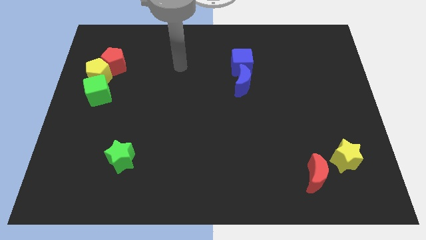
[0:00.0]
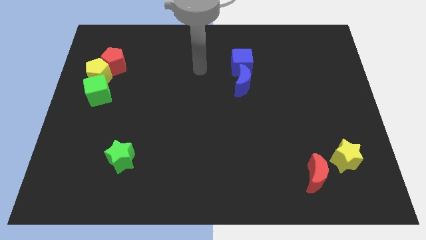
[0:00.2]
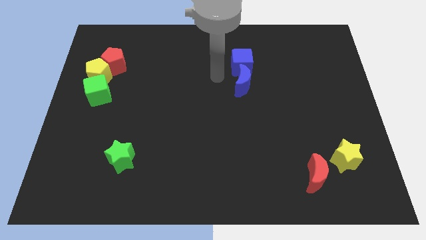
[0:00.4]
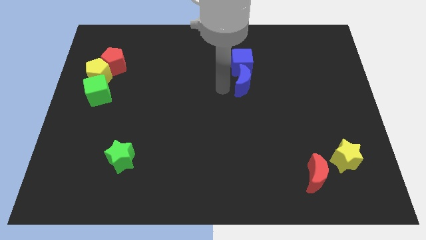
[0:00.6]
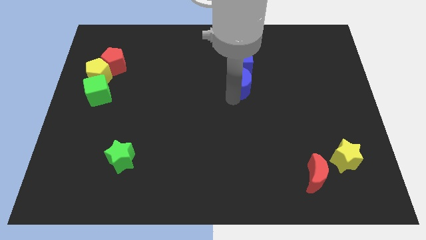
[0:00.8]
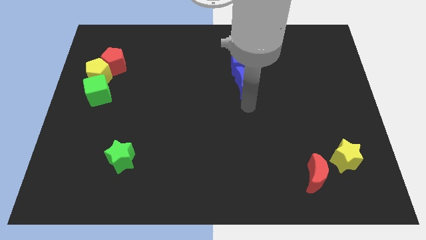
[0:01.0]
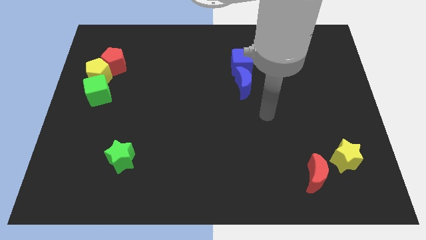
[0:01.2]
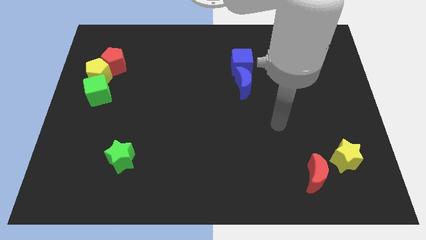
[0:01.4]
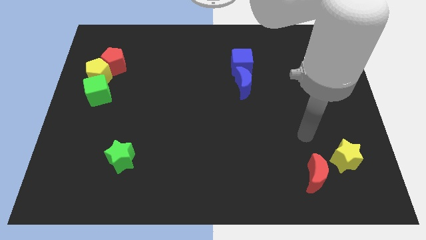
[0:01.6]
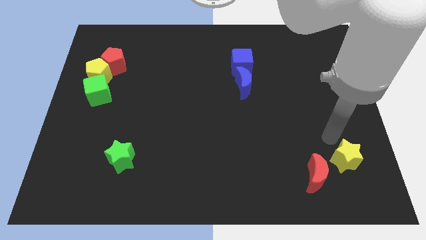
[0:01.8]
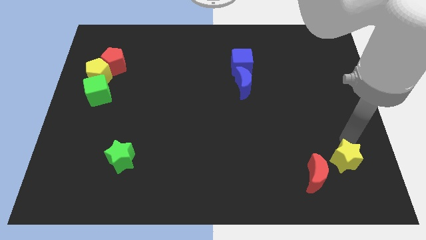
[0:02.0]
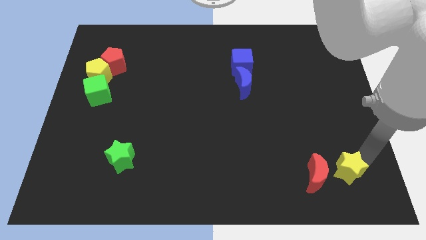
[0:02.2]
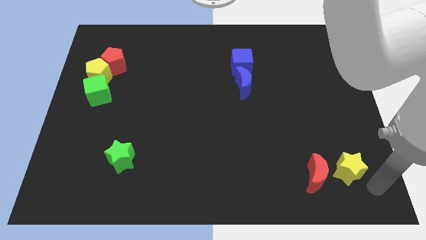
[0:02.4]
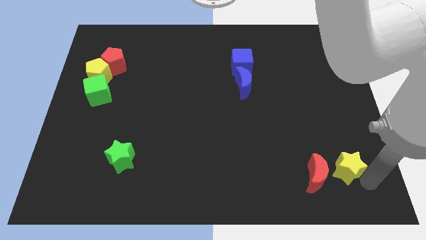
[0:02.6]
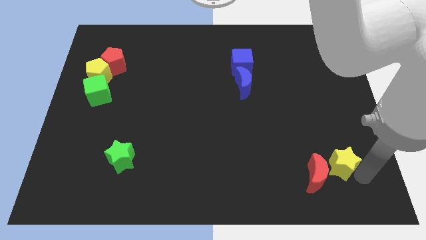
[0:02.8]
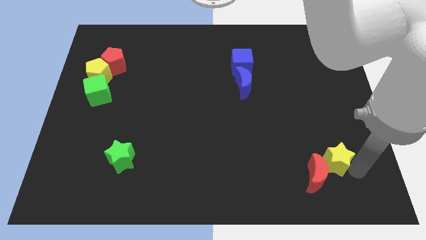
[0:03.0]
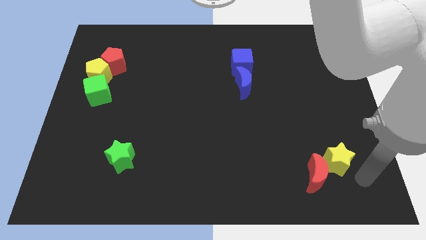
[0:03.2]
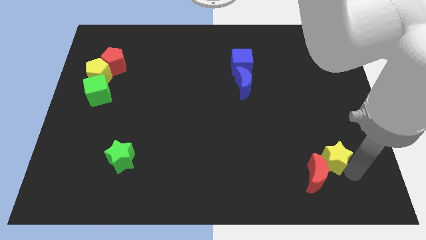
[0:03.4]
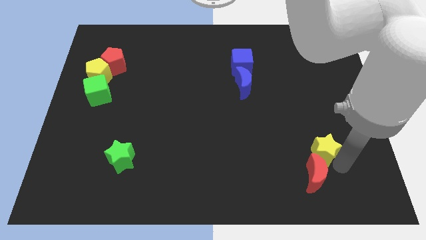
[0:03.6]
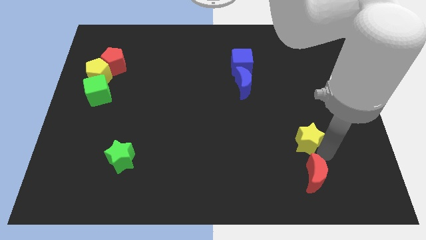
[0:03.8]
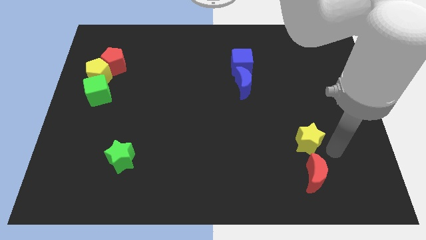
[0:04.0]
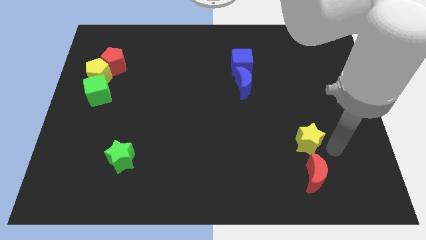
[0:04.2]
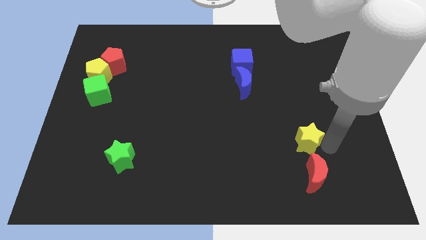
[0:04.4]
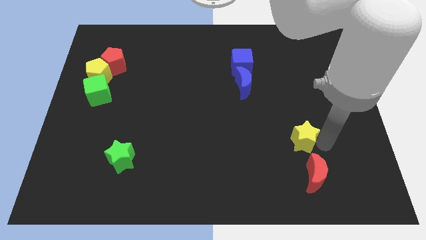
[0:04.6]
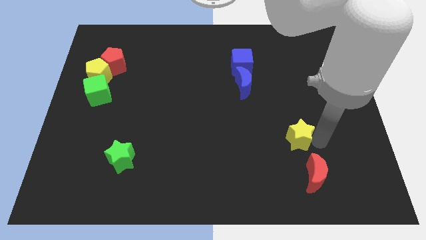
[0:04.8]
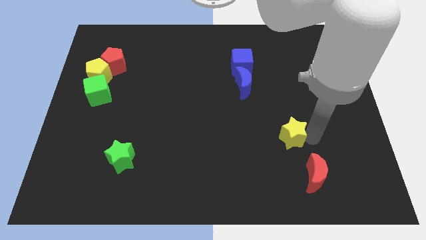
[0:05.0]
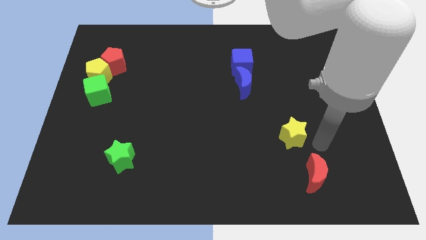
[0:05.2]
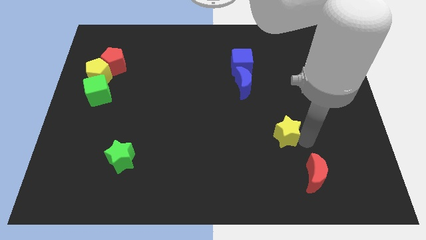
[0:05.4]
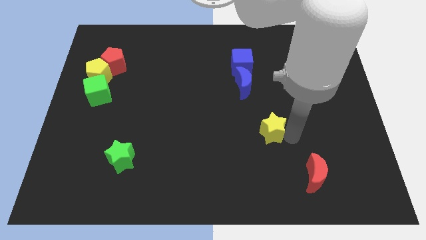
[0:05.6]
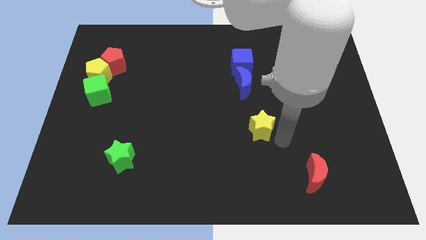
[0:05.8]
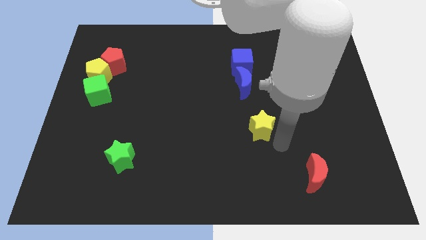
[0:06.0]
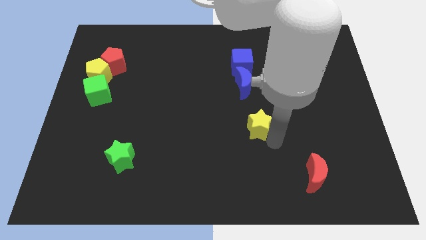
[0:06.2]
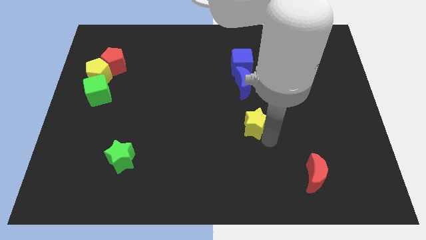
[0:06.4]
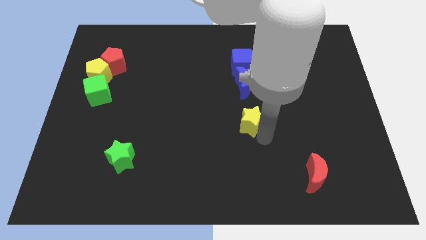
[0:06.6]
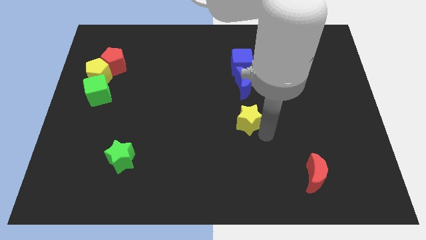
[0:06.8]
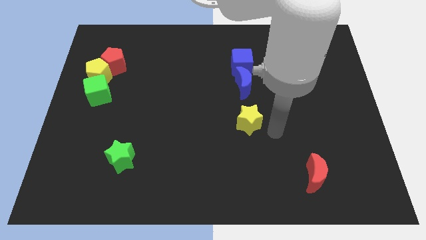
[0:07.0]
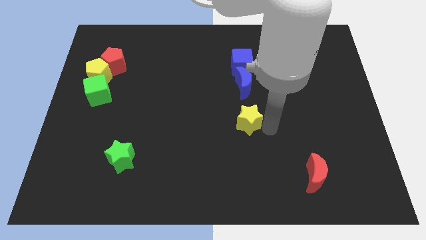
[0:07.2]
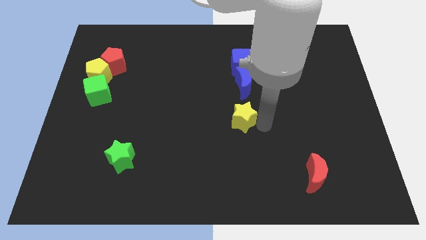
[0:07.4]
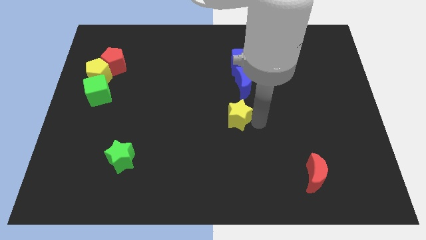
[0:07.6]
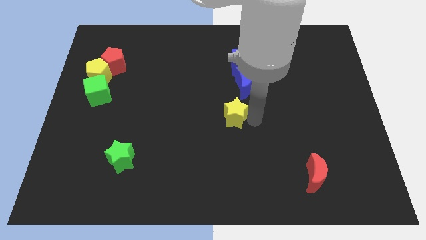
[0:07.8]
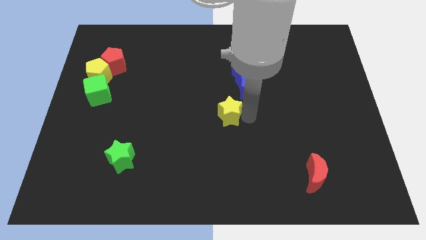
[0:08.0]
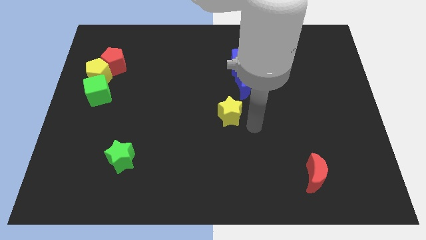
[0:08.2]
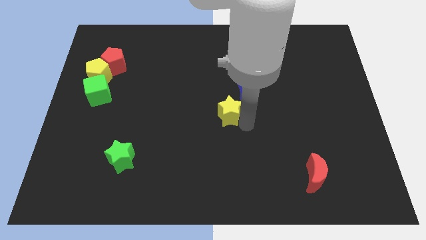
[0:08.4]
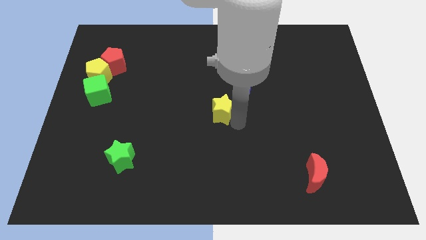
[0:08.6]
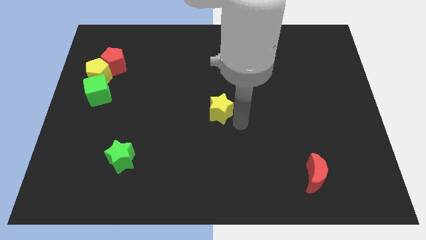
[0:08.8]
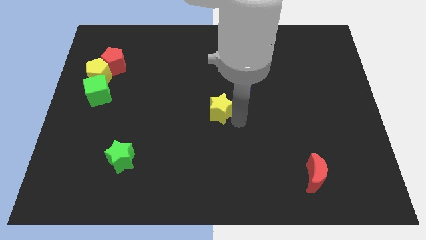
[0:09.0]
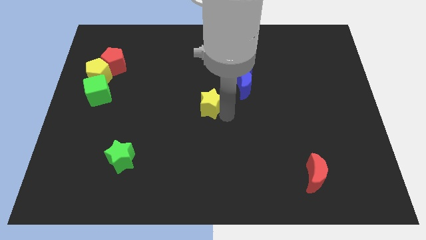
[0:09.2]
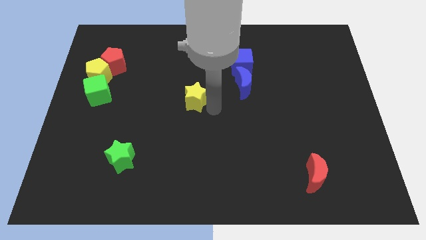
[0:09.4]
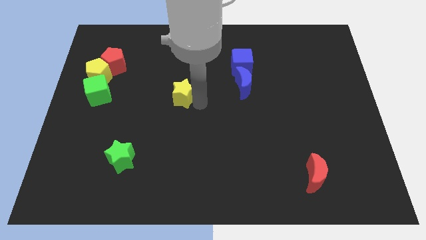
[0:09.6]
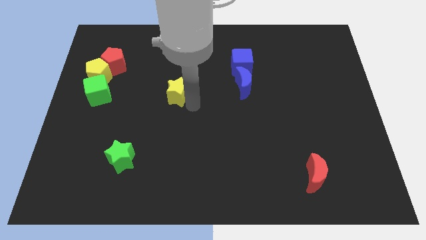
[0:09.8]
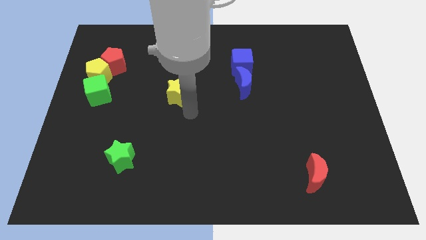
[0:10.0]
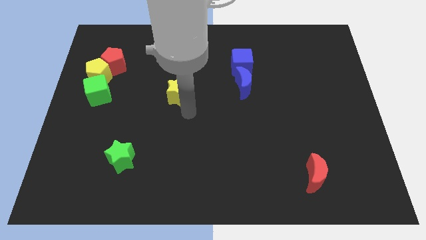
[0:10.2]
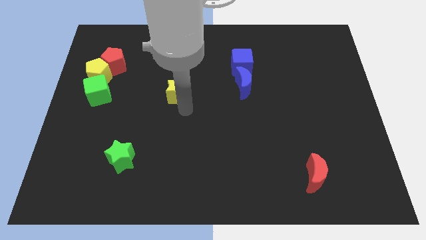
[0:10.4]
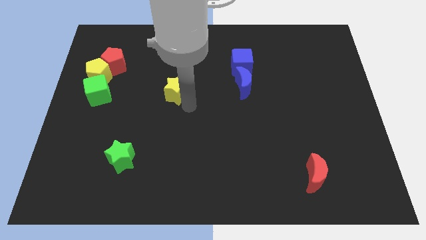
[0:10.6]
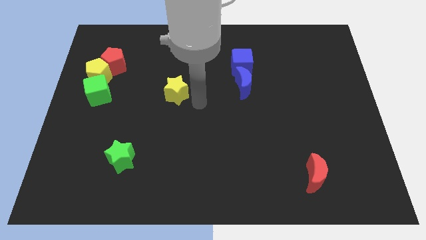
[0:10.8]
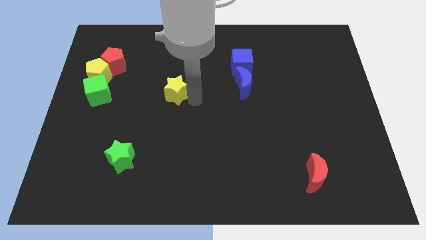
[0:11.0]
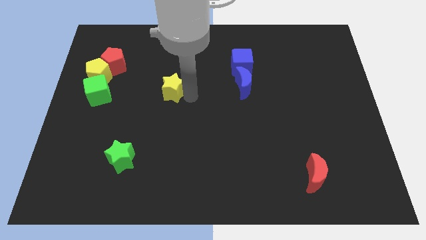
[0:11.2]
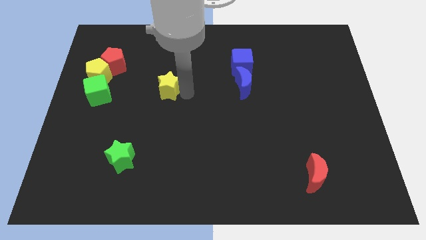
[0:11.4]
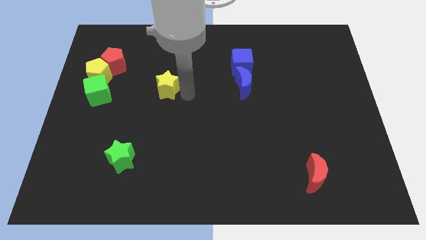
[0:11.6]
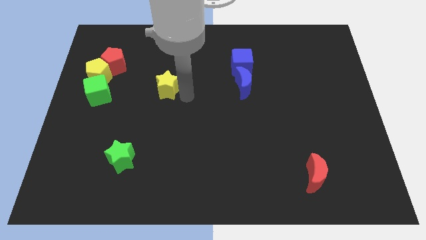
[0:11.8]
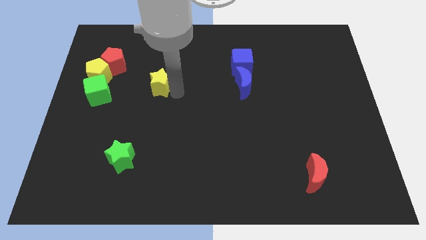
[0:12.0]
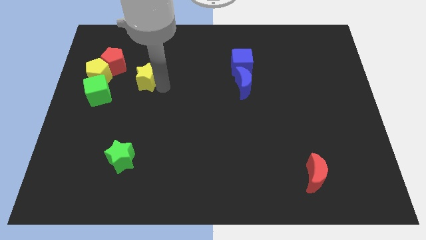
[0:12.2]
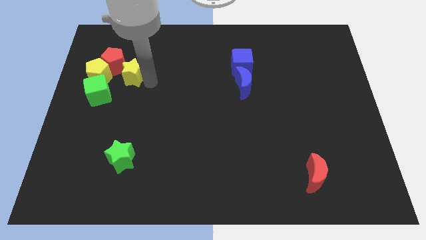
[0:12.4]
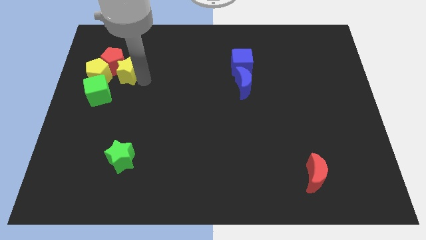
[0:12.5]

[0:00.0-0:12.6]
push the yellow star towards the red pentagon

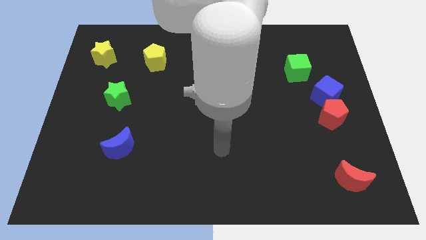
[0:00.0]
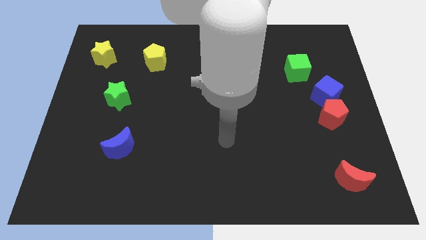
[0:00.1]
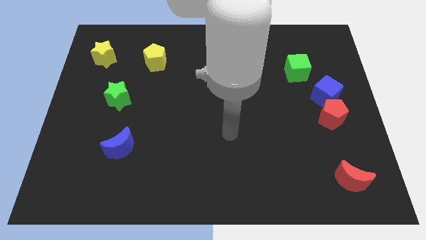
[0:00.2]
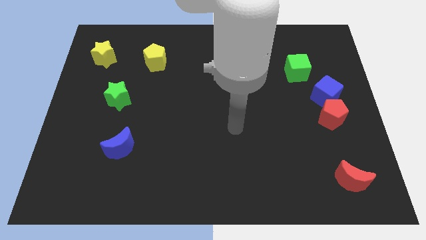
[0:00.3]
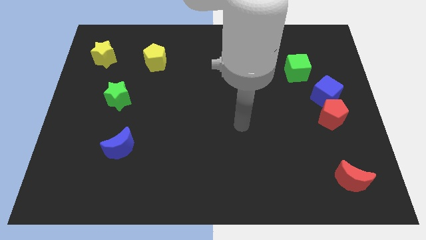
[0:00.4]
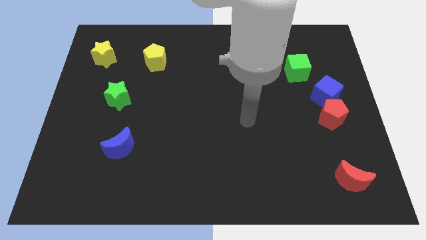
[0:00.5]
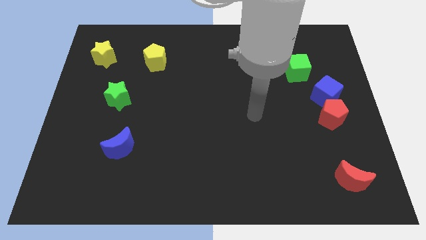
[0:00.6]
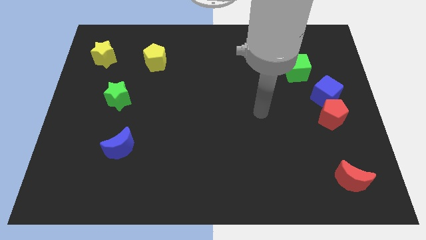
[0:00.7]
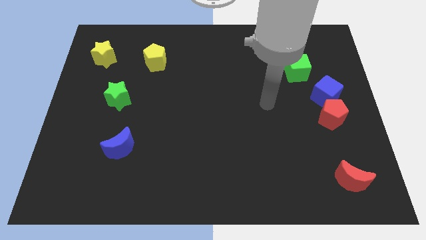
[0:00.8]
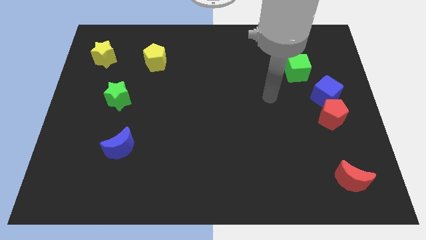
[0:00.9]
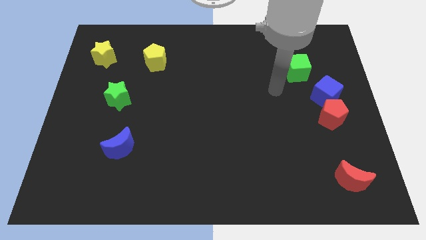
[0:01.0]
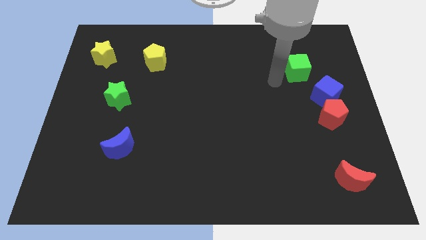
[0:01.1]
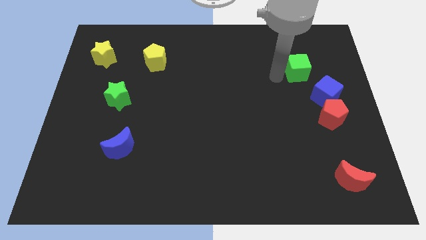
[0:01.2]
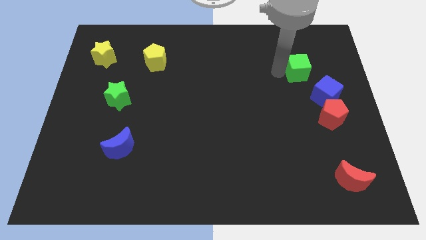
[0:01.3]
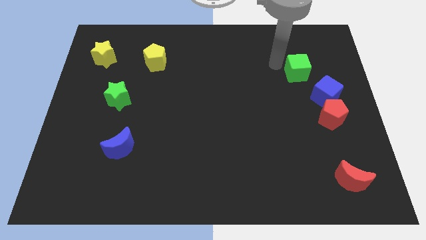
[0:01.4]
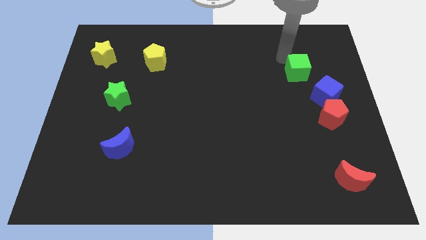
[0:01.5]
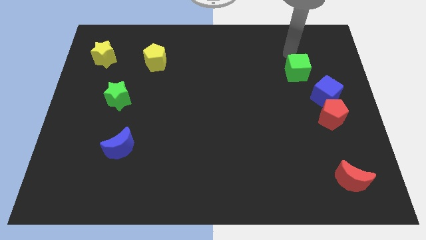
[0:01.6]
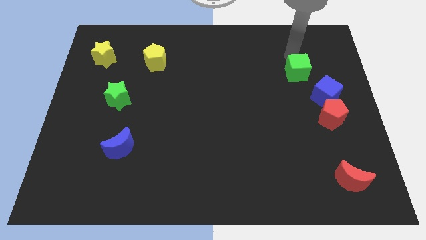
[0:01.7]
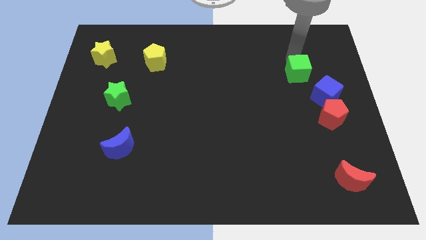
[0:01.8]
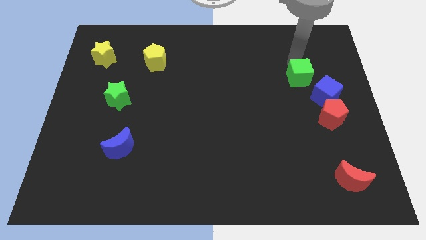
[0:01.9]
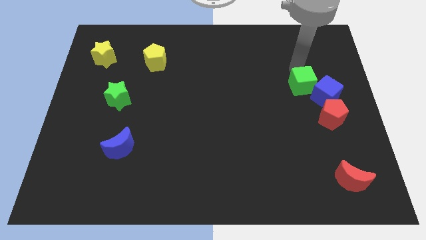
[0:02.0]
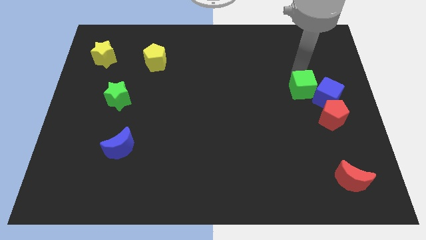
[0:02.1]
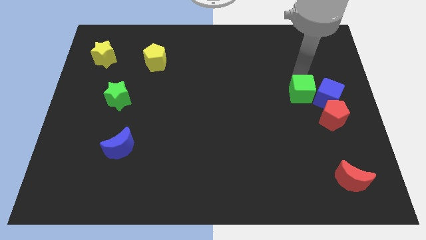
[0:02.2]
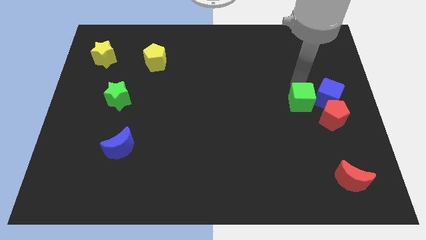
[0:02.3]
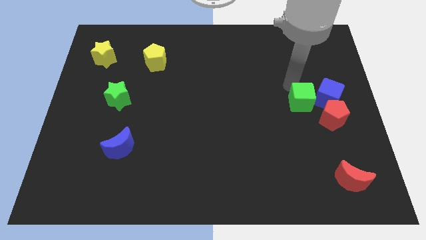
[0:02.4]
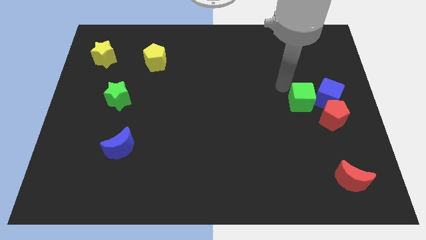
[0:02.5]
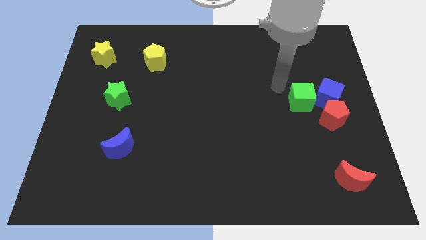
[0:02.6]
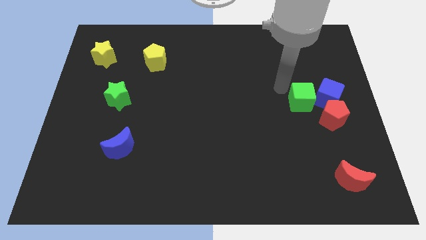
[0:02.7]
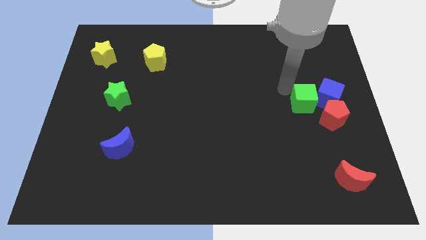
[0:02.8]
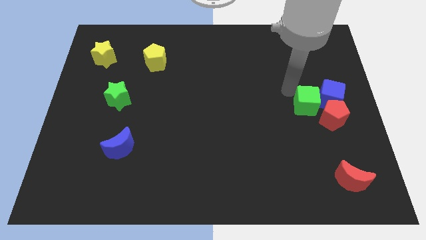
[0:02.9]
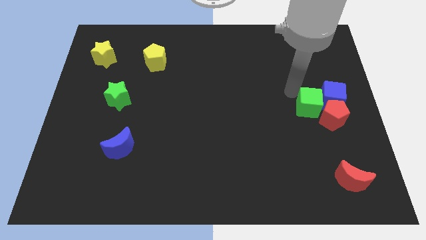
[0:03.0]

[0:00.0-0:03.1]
slide the green cube close to the red pentagon
